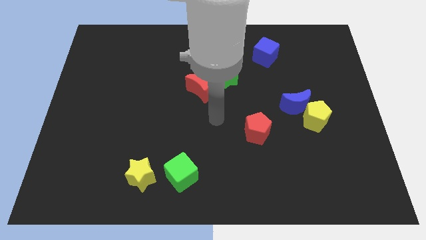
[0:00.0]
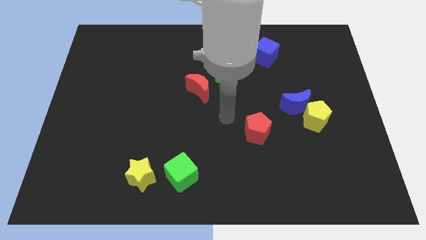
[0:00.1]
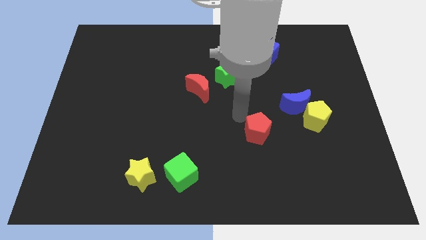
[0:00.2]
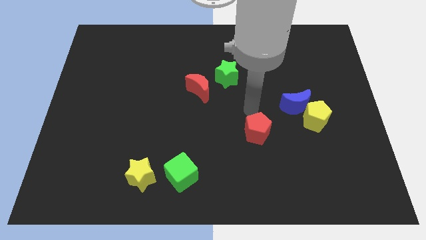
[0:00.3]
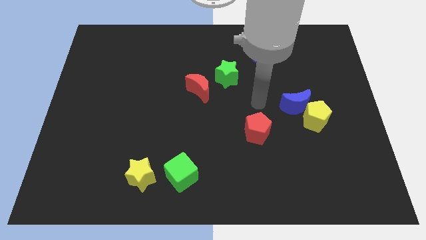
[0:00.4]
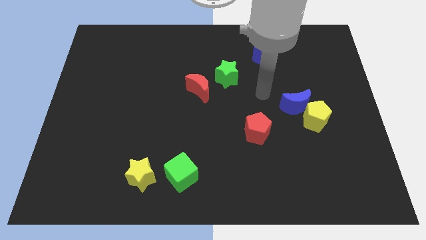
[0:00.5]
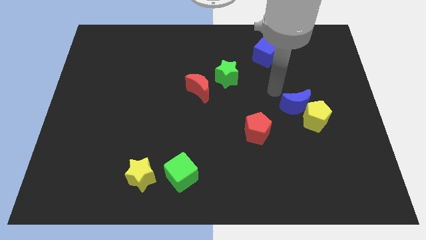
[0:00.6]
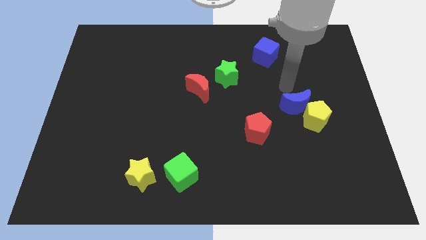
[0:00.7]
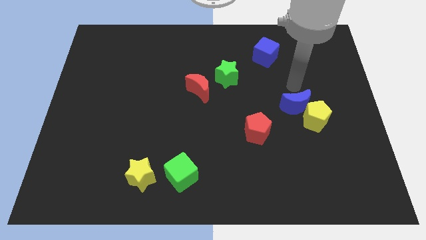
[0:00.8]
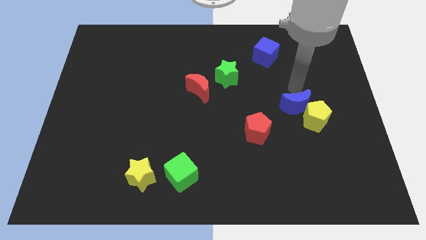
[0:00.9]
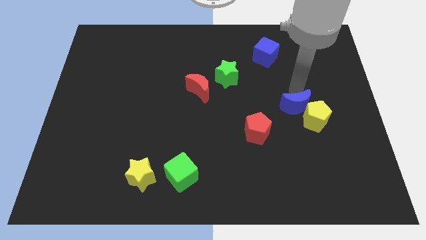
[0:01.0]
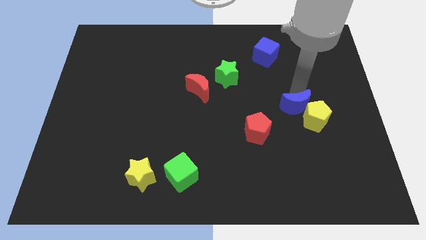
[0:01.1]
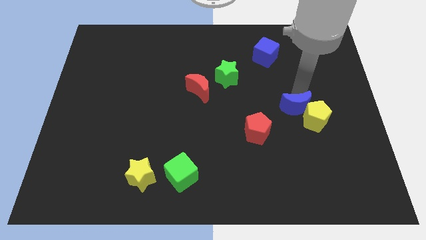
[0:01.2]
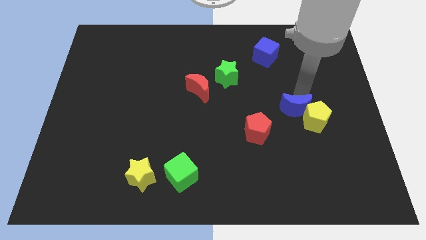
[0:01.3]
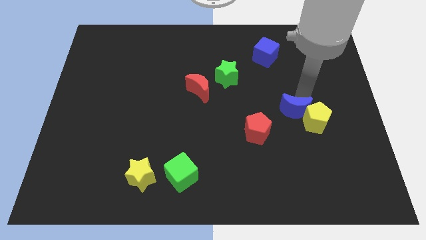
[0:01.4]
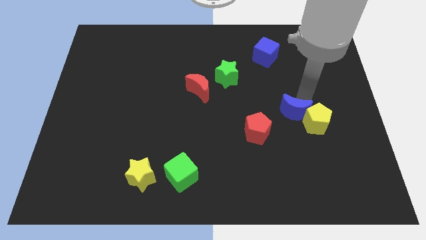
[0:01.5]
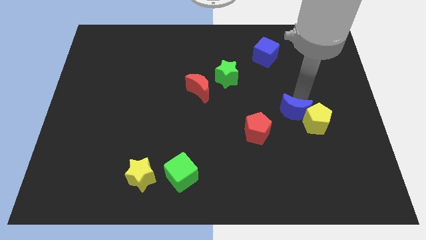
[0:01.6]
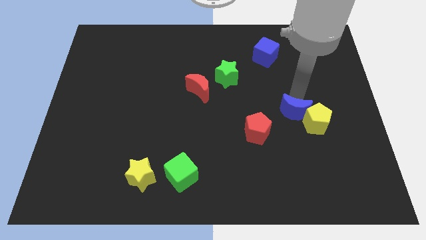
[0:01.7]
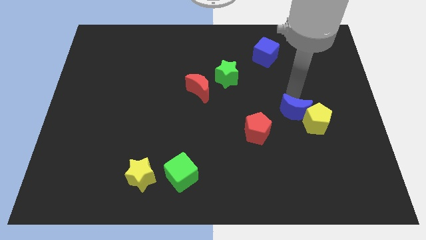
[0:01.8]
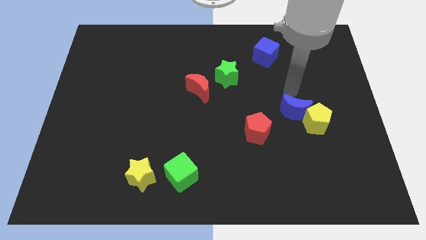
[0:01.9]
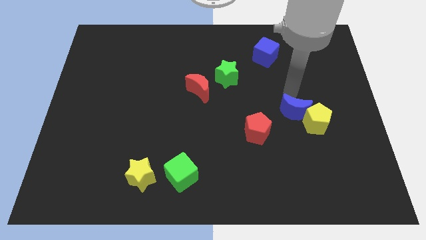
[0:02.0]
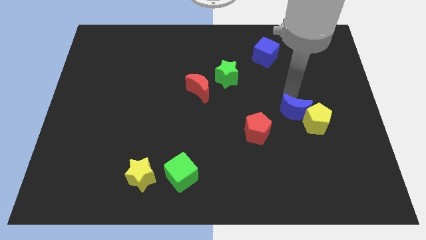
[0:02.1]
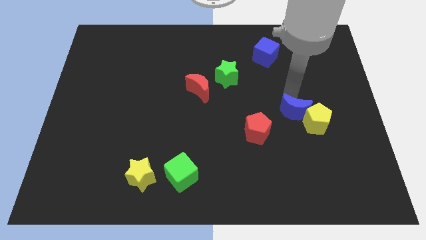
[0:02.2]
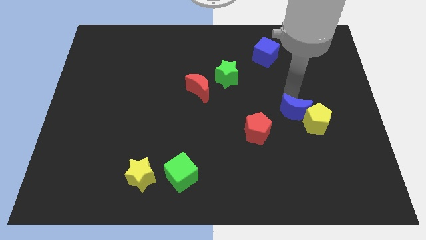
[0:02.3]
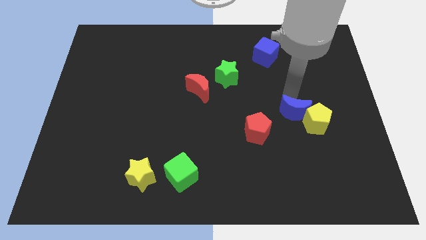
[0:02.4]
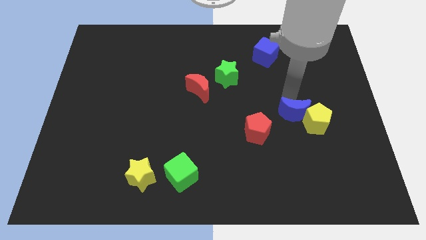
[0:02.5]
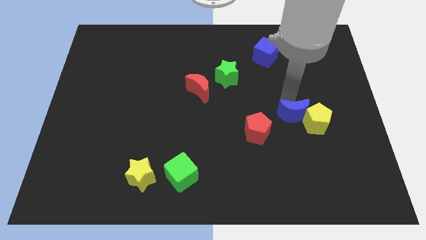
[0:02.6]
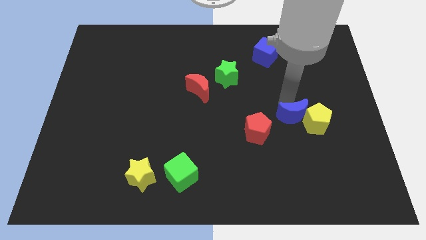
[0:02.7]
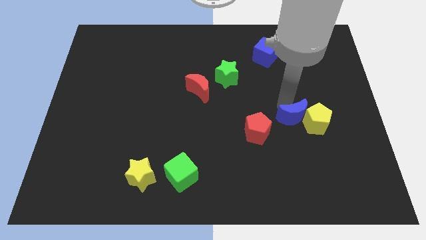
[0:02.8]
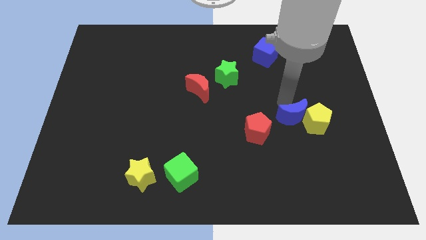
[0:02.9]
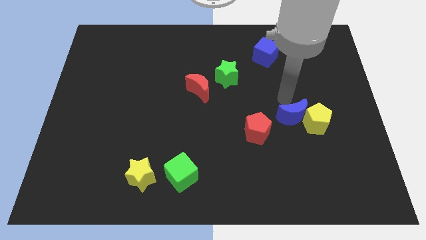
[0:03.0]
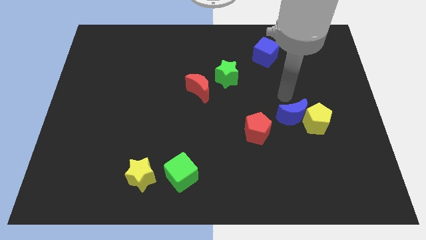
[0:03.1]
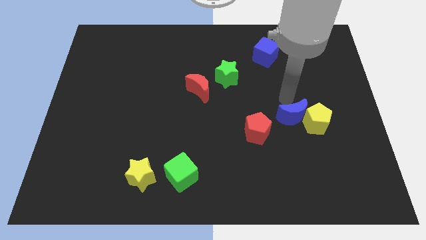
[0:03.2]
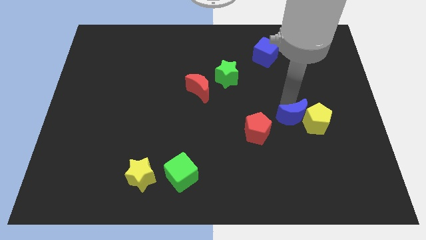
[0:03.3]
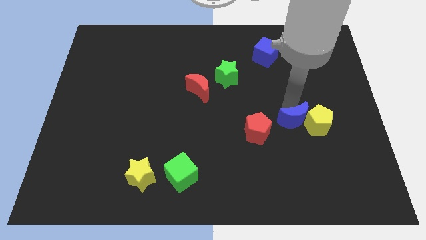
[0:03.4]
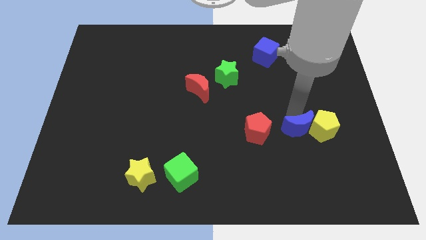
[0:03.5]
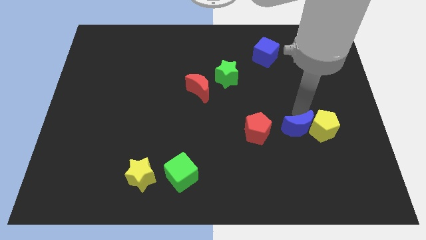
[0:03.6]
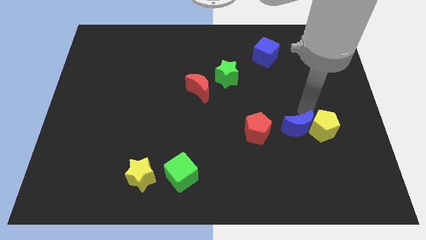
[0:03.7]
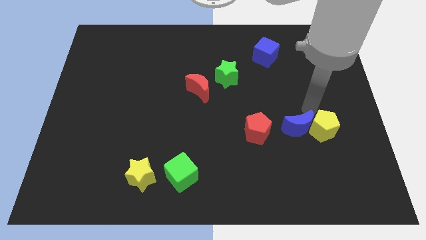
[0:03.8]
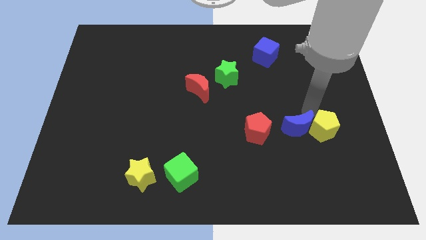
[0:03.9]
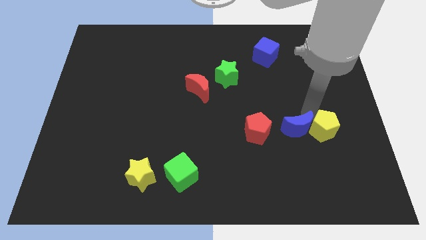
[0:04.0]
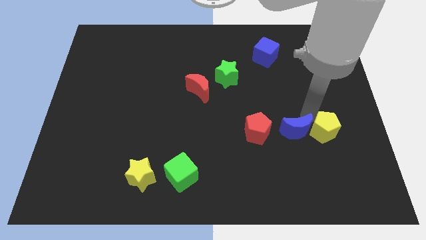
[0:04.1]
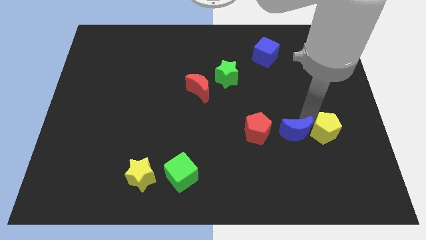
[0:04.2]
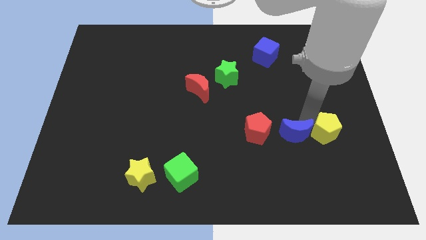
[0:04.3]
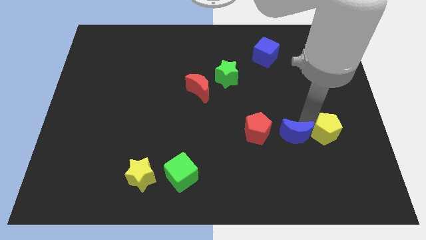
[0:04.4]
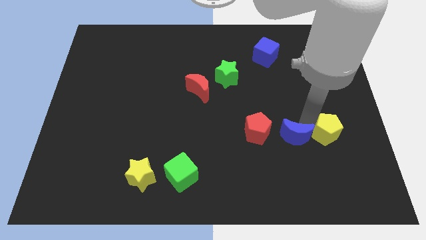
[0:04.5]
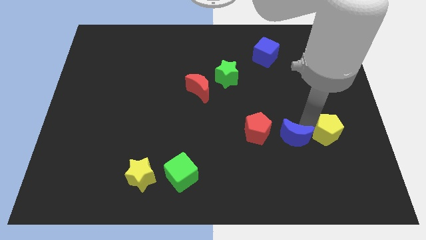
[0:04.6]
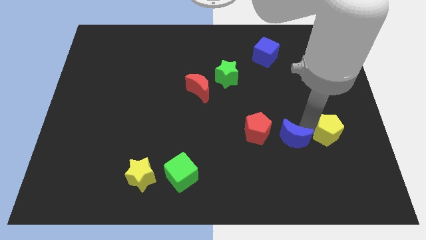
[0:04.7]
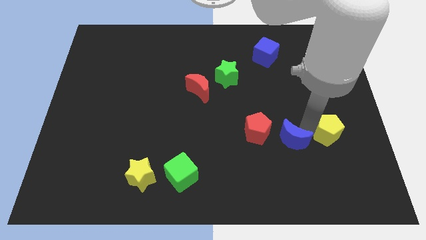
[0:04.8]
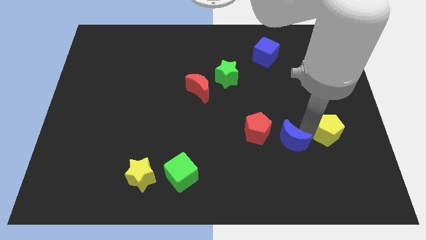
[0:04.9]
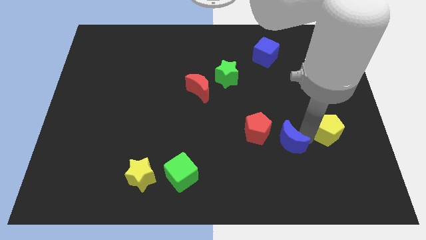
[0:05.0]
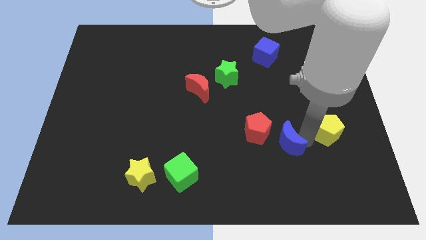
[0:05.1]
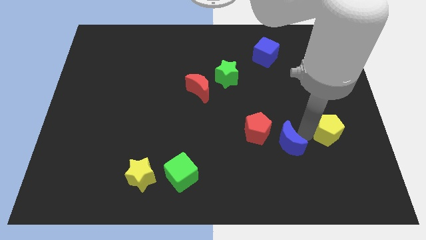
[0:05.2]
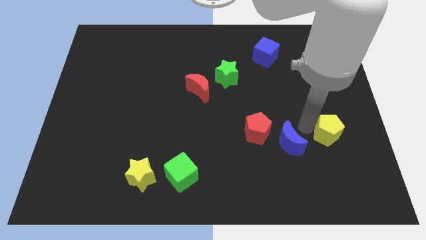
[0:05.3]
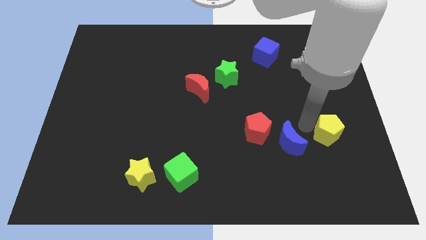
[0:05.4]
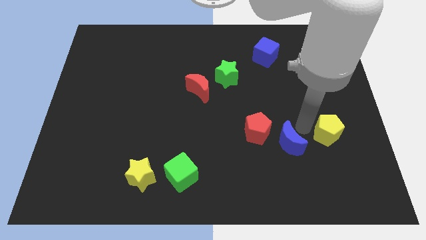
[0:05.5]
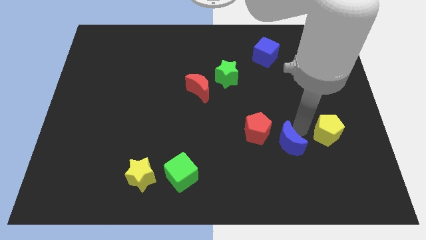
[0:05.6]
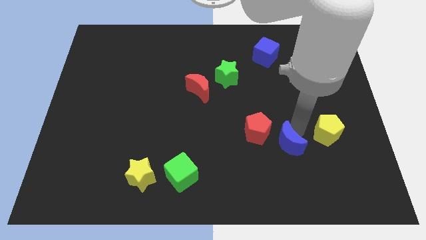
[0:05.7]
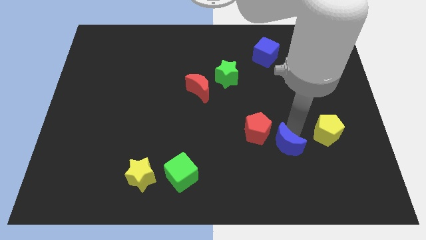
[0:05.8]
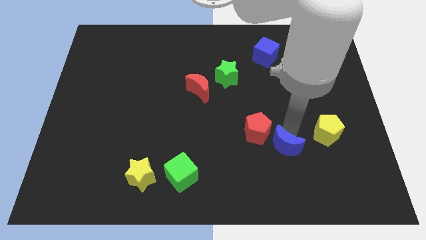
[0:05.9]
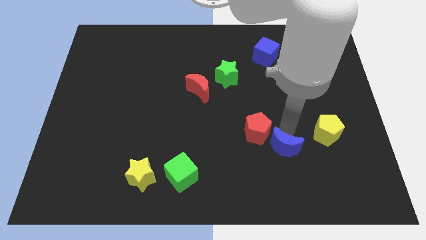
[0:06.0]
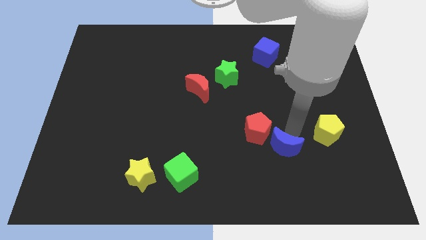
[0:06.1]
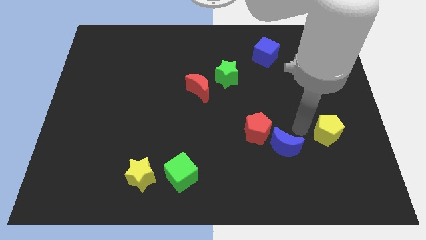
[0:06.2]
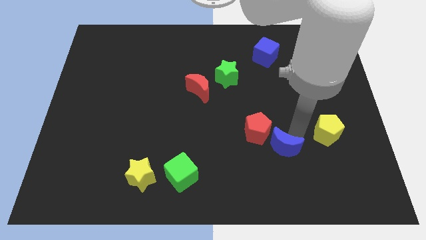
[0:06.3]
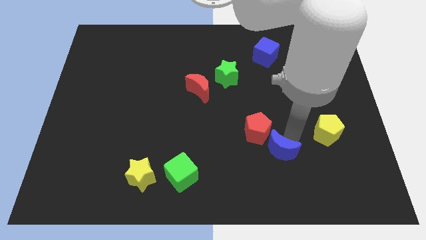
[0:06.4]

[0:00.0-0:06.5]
push the blue moon to the bottom side of the red pentagon
